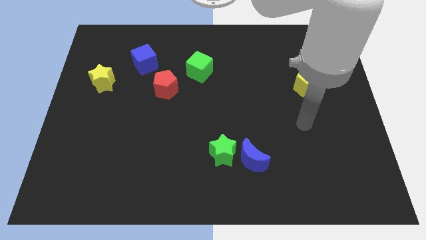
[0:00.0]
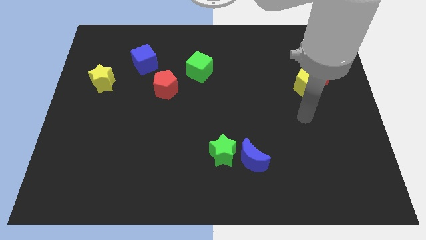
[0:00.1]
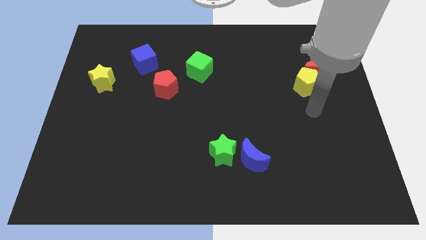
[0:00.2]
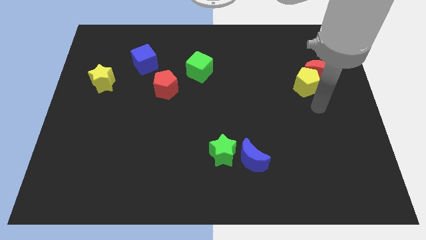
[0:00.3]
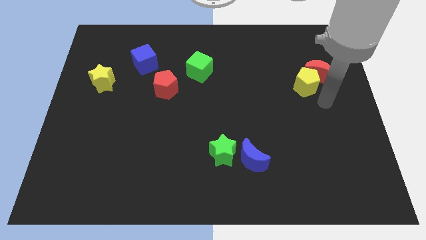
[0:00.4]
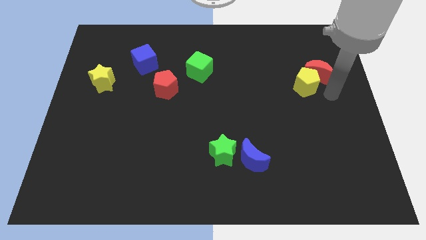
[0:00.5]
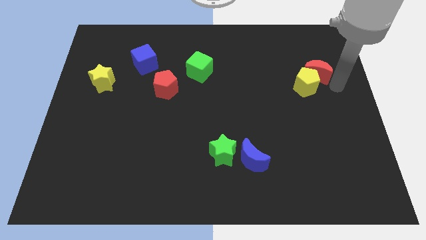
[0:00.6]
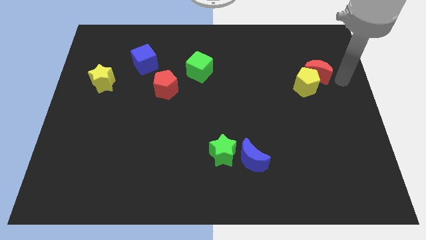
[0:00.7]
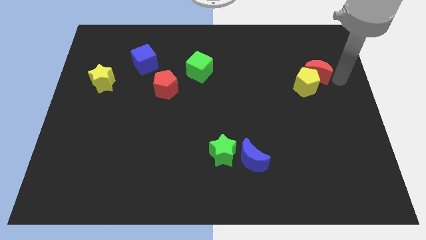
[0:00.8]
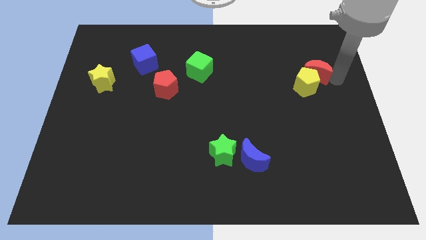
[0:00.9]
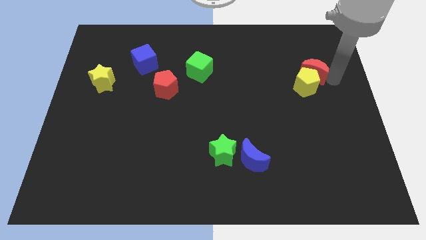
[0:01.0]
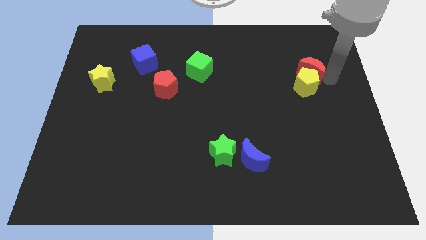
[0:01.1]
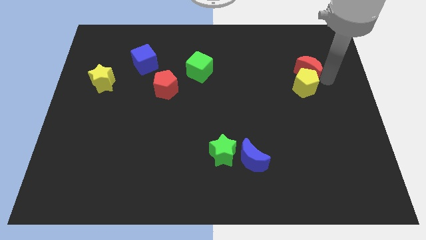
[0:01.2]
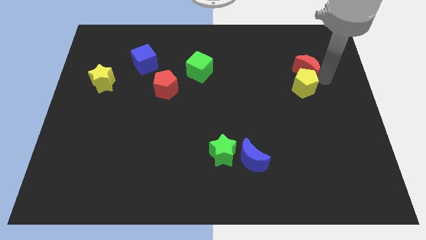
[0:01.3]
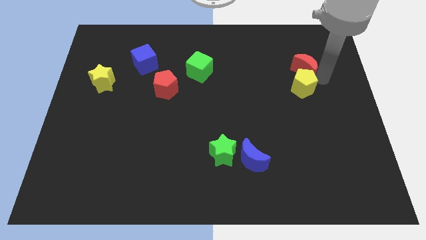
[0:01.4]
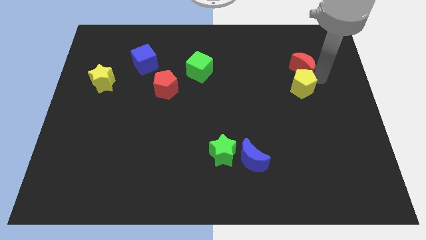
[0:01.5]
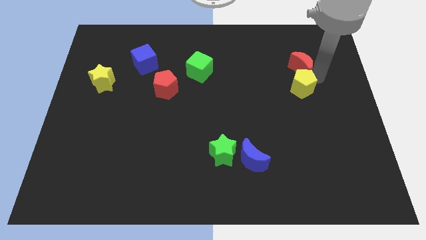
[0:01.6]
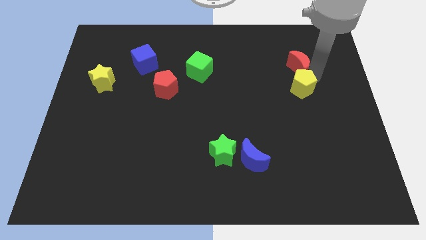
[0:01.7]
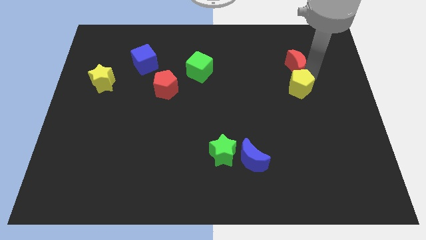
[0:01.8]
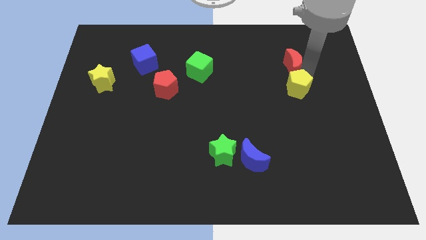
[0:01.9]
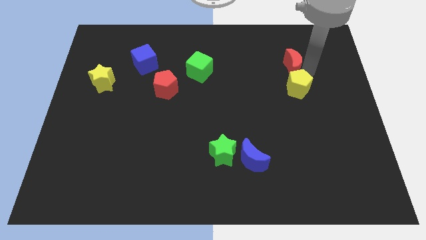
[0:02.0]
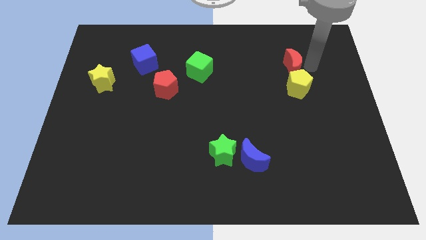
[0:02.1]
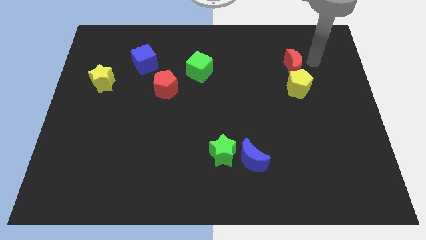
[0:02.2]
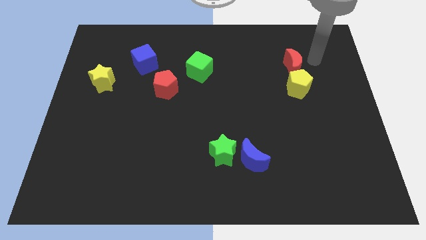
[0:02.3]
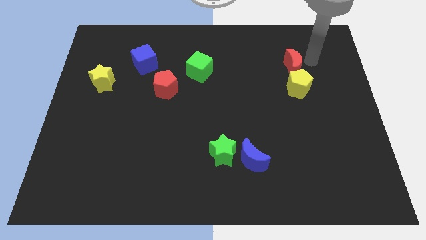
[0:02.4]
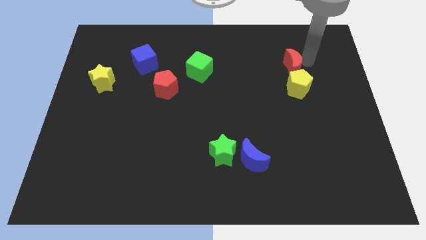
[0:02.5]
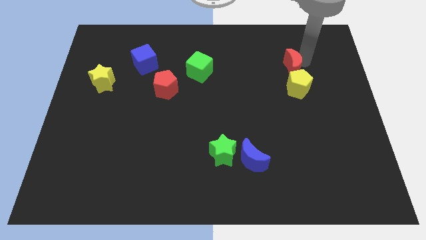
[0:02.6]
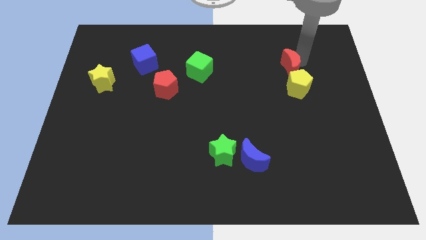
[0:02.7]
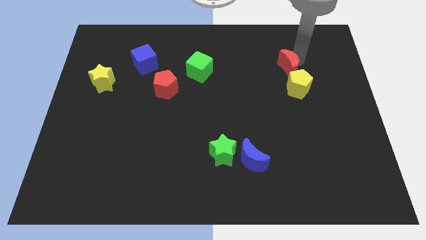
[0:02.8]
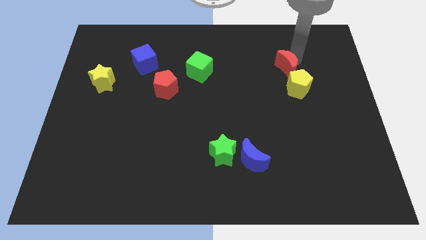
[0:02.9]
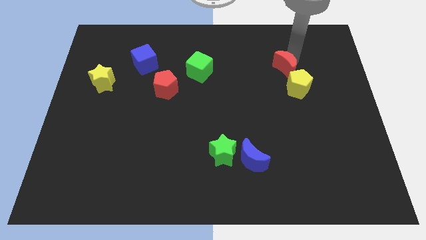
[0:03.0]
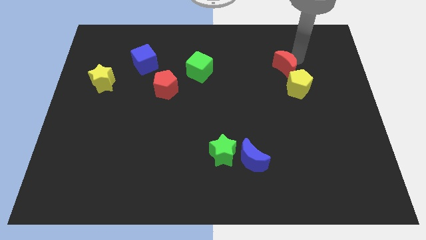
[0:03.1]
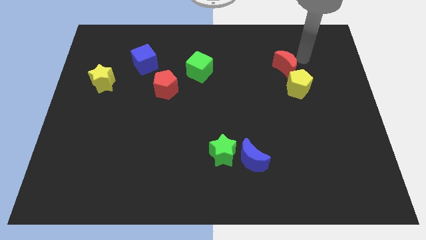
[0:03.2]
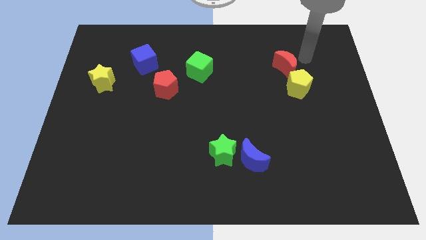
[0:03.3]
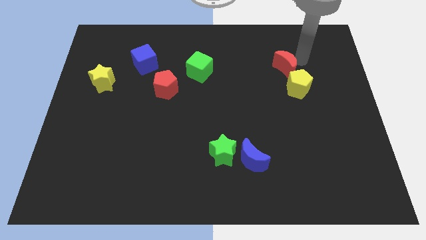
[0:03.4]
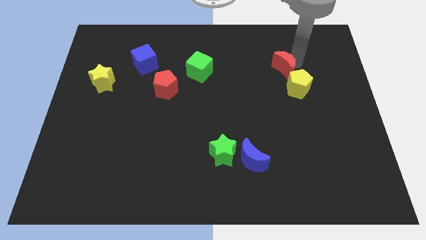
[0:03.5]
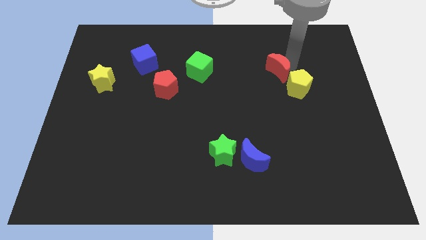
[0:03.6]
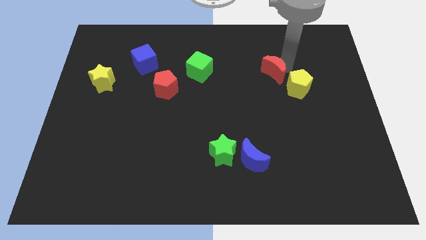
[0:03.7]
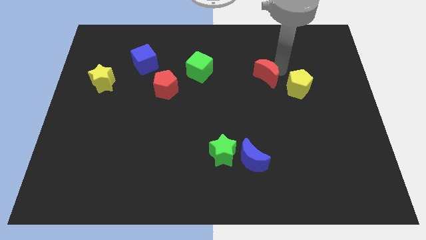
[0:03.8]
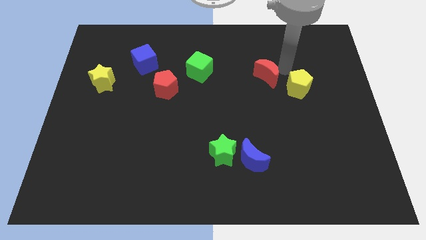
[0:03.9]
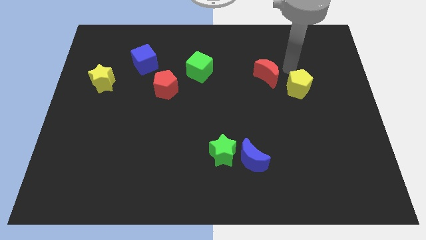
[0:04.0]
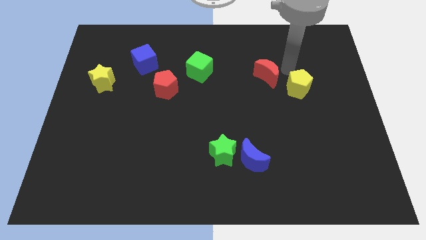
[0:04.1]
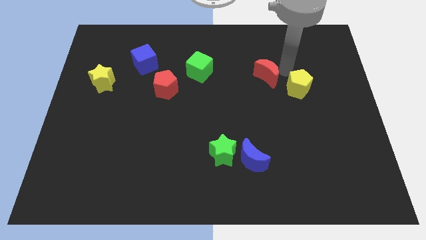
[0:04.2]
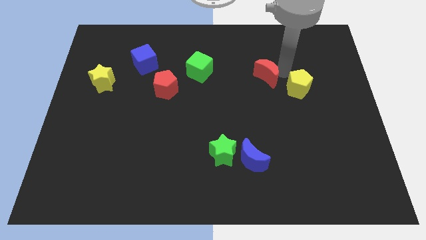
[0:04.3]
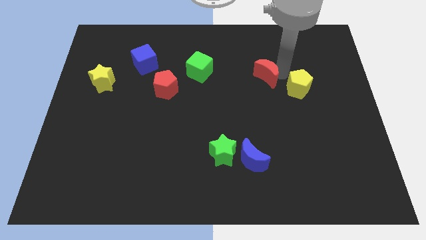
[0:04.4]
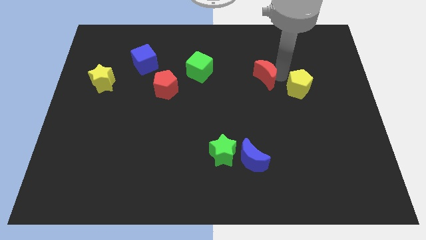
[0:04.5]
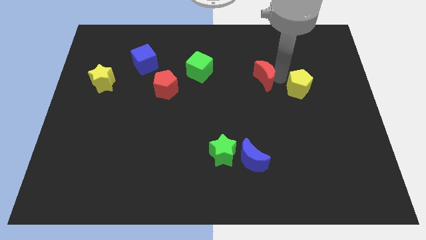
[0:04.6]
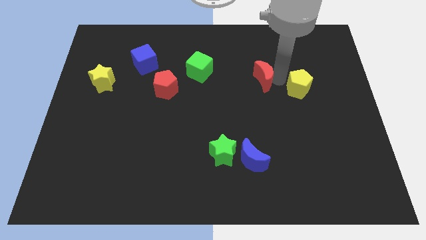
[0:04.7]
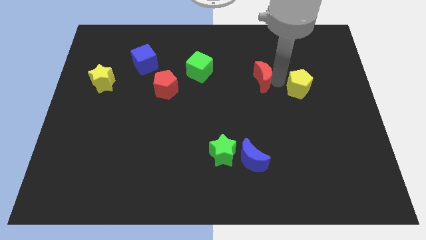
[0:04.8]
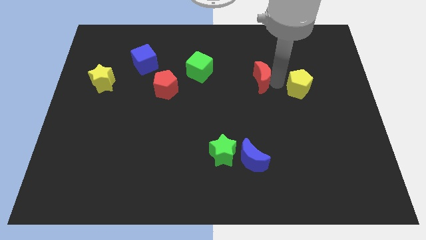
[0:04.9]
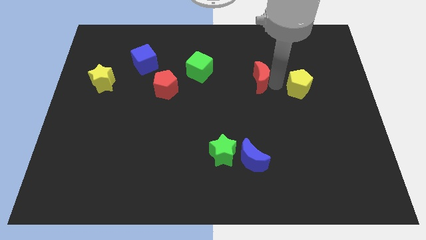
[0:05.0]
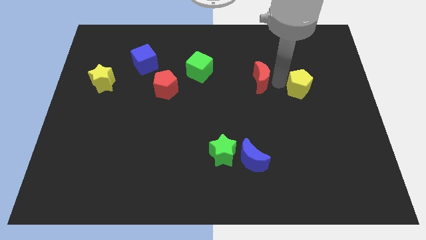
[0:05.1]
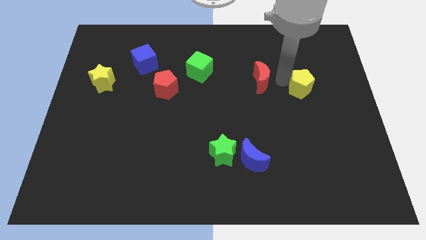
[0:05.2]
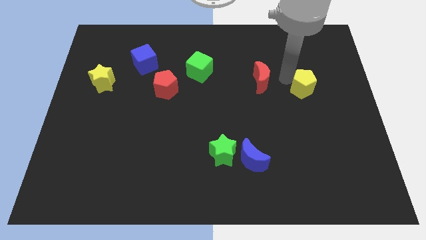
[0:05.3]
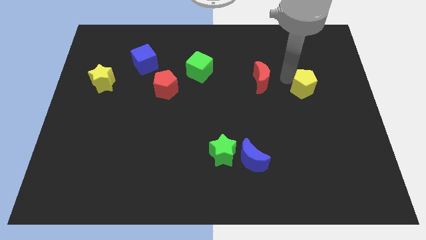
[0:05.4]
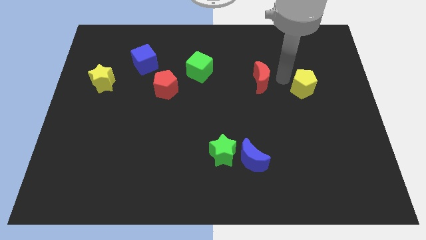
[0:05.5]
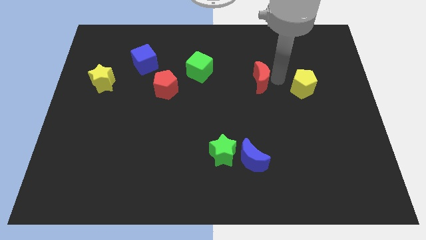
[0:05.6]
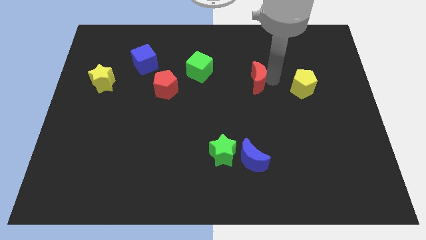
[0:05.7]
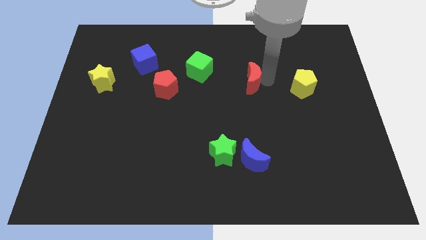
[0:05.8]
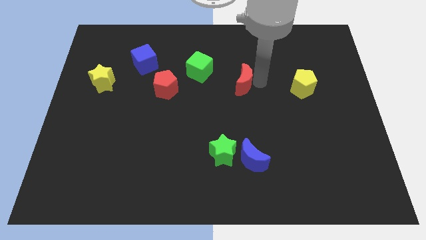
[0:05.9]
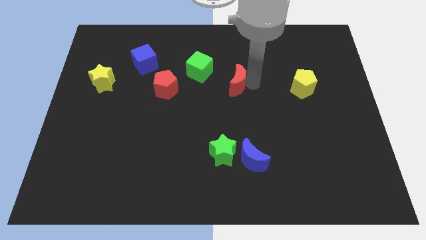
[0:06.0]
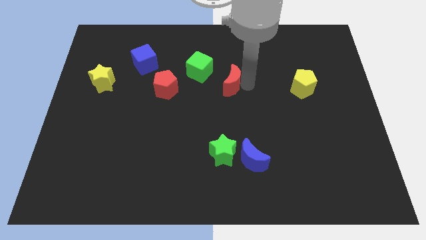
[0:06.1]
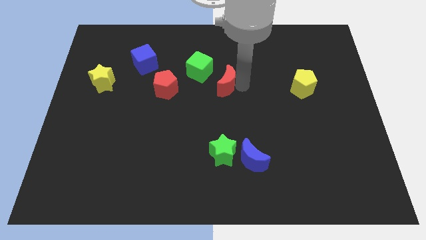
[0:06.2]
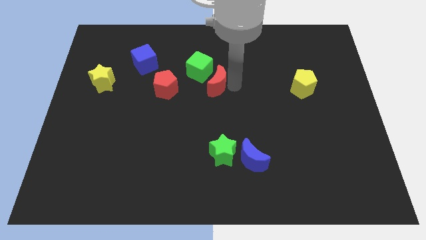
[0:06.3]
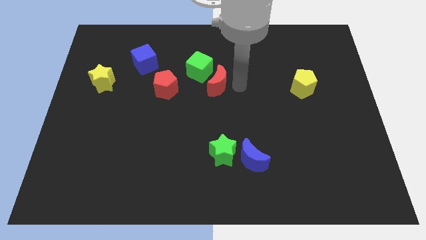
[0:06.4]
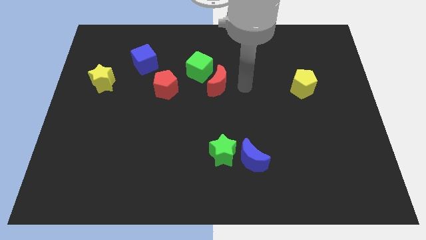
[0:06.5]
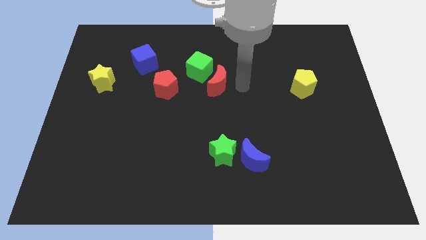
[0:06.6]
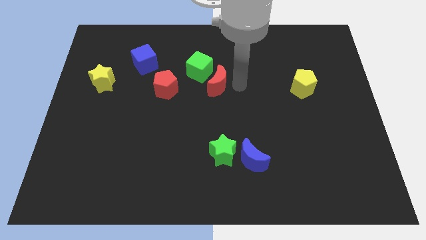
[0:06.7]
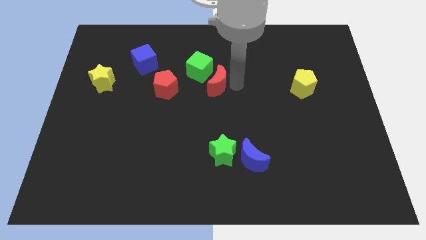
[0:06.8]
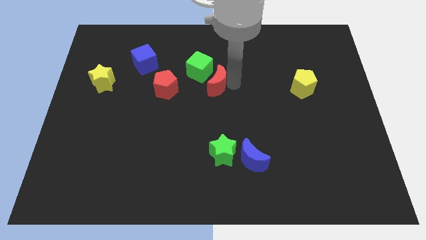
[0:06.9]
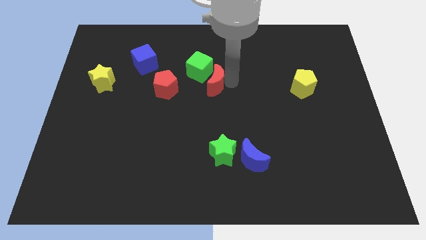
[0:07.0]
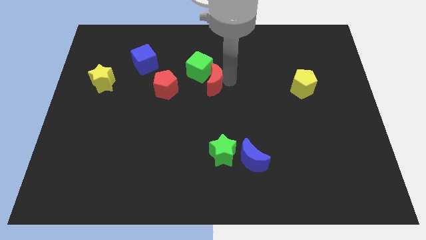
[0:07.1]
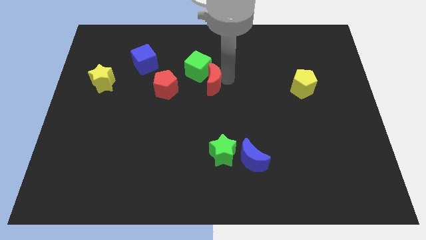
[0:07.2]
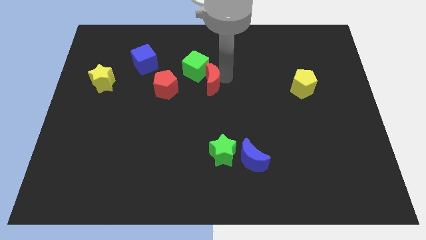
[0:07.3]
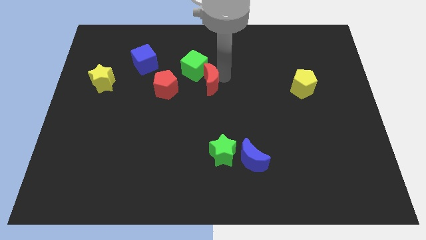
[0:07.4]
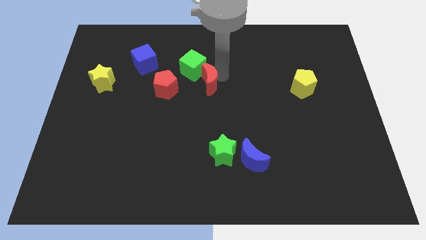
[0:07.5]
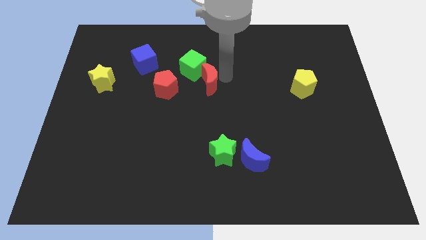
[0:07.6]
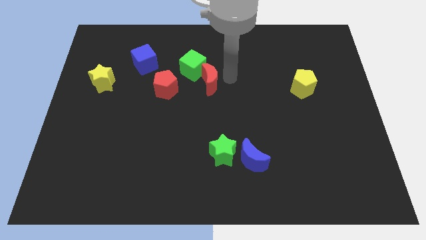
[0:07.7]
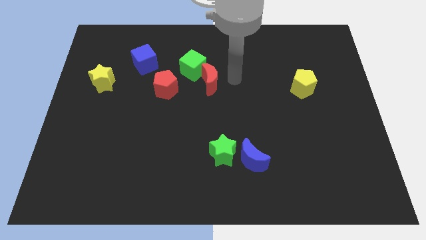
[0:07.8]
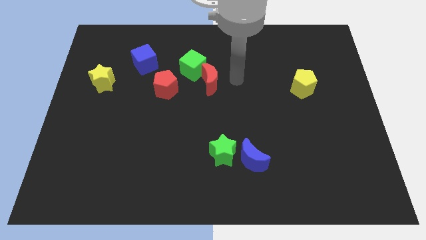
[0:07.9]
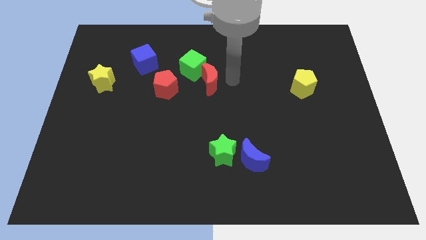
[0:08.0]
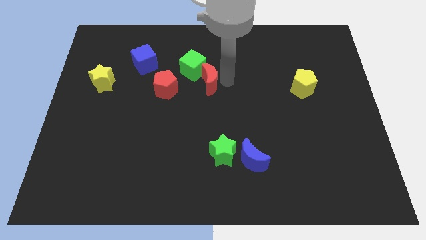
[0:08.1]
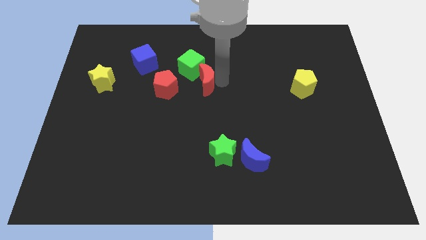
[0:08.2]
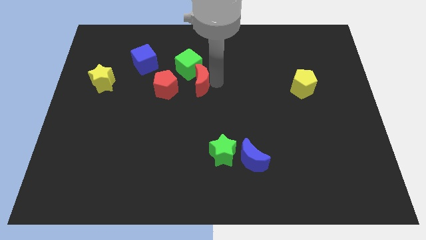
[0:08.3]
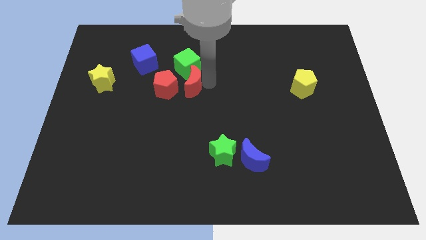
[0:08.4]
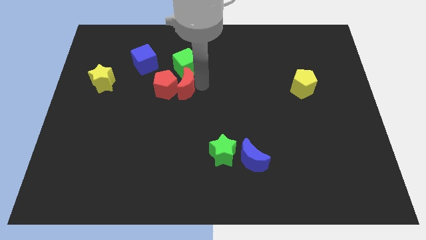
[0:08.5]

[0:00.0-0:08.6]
move the red moon to the red pentagon
